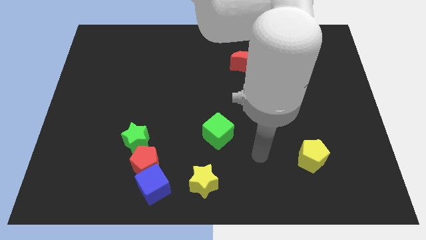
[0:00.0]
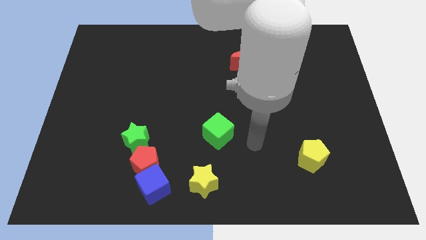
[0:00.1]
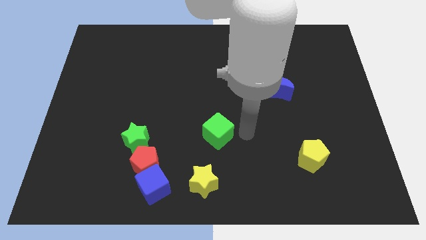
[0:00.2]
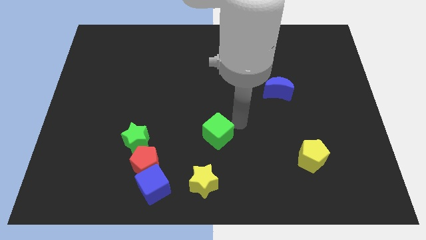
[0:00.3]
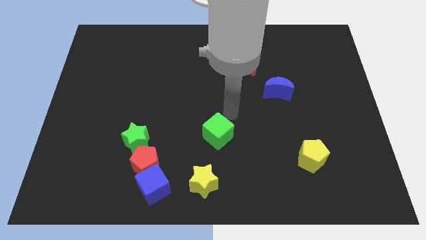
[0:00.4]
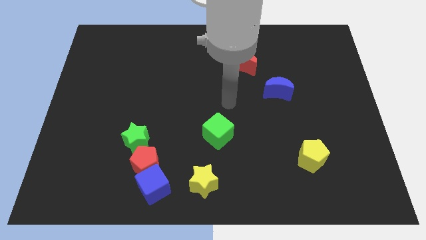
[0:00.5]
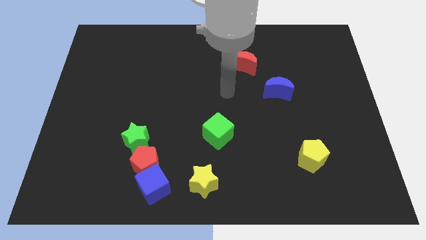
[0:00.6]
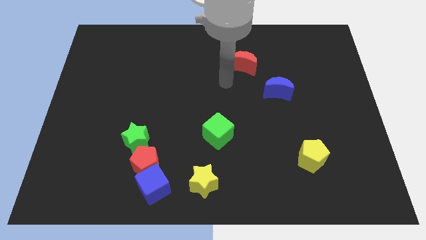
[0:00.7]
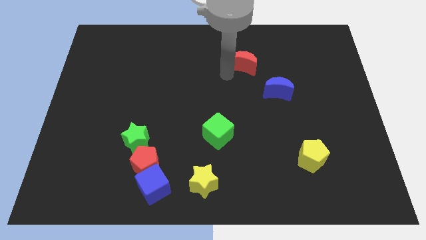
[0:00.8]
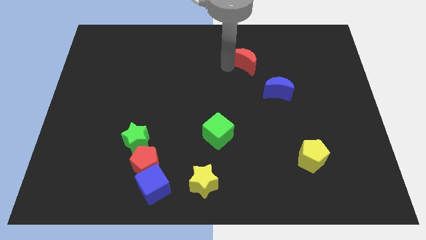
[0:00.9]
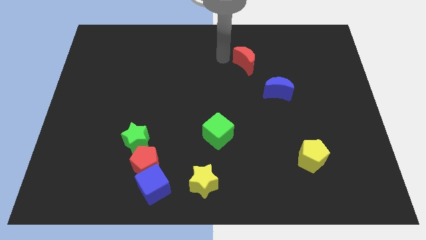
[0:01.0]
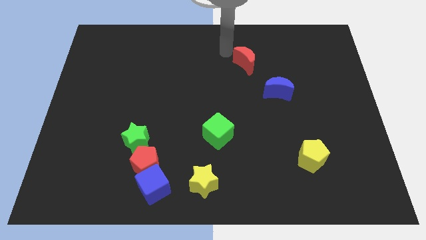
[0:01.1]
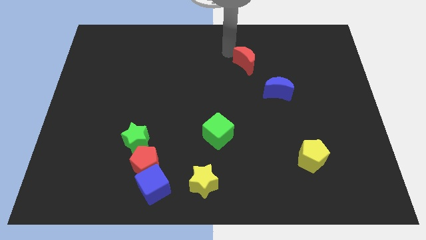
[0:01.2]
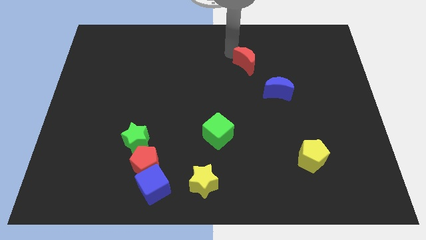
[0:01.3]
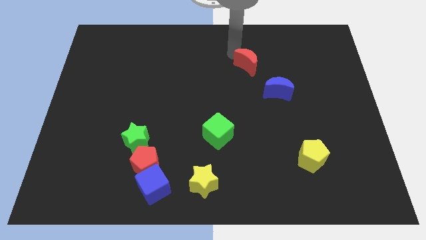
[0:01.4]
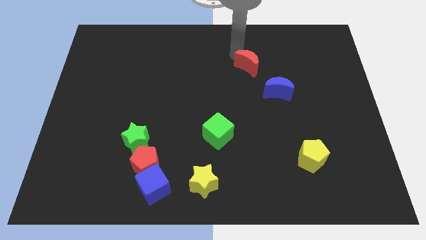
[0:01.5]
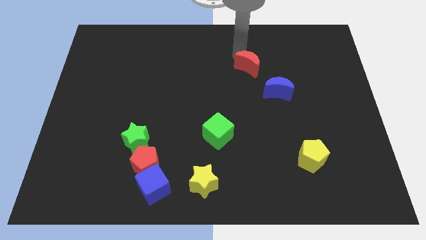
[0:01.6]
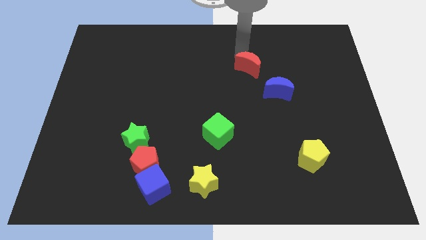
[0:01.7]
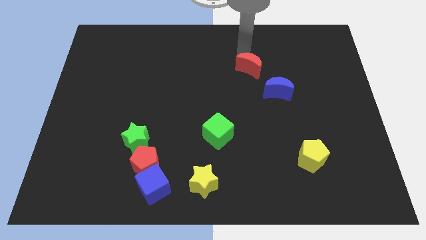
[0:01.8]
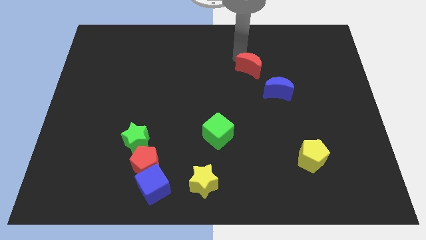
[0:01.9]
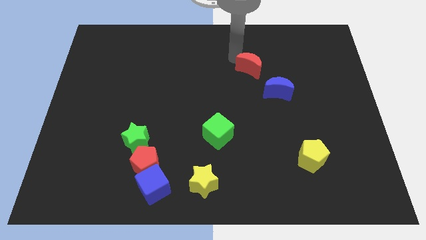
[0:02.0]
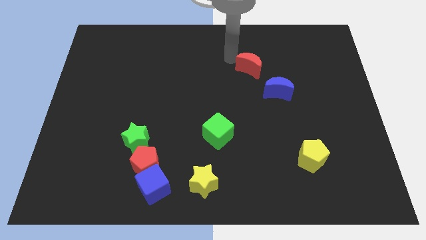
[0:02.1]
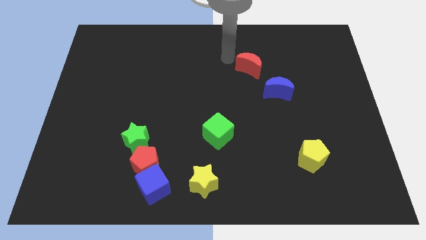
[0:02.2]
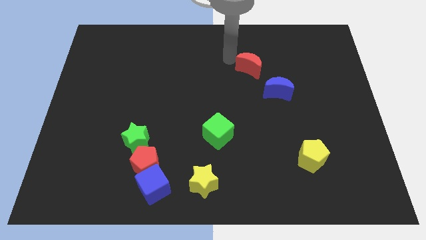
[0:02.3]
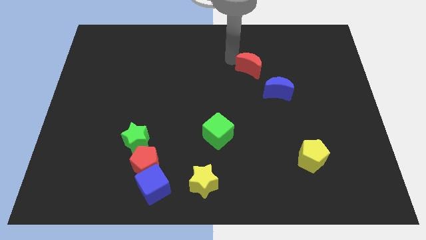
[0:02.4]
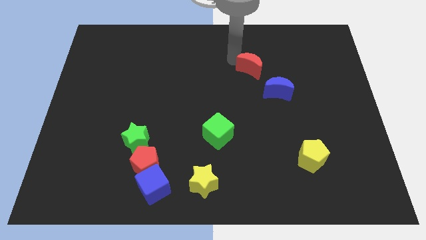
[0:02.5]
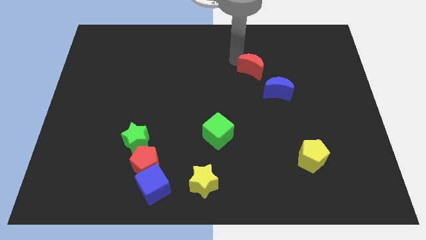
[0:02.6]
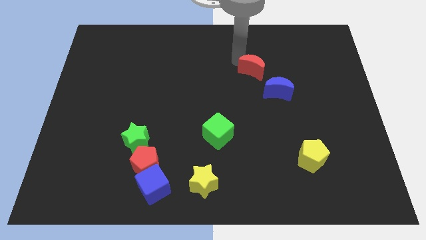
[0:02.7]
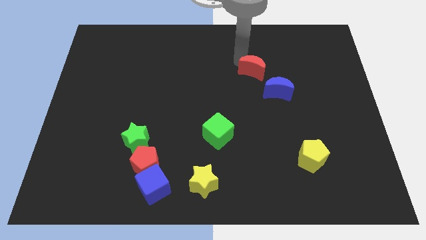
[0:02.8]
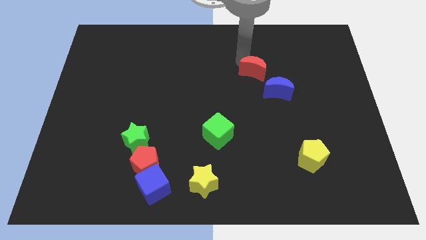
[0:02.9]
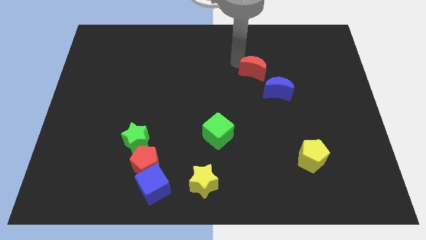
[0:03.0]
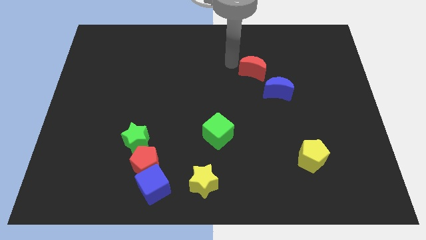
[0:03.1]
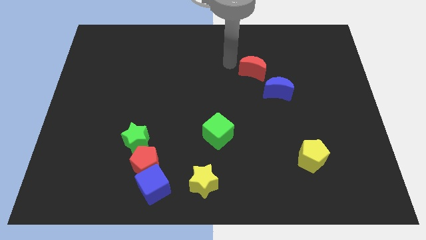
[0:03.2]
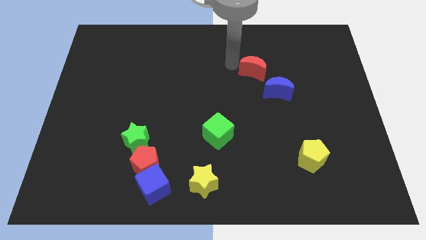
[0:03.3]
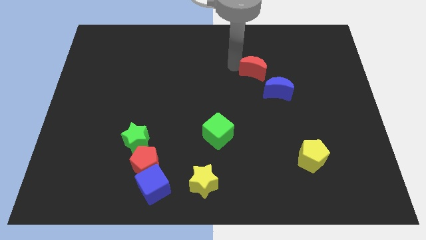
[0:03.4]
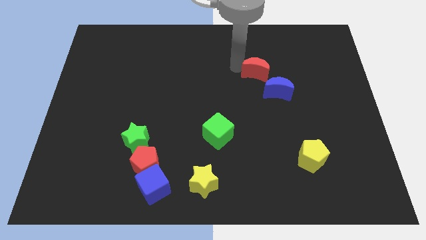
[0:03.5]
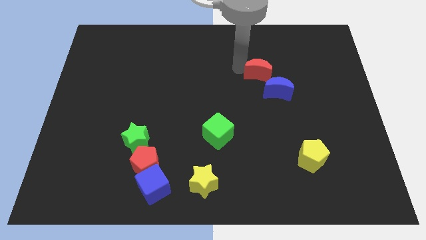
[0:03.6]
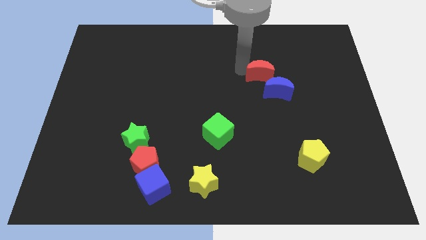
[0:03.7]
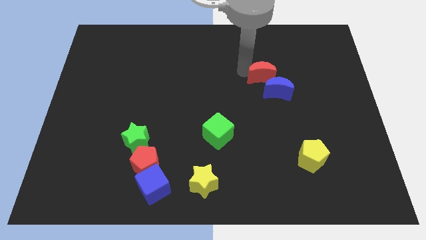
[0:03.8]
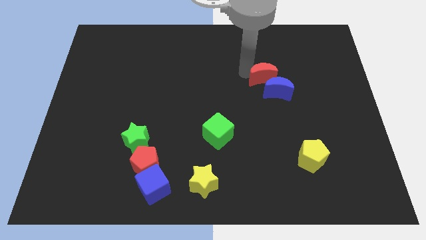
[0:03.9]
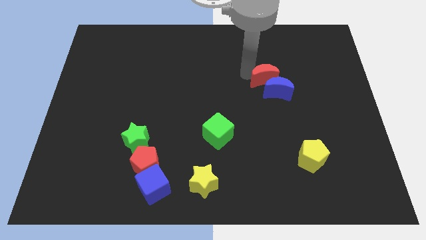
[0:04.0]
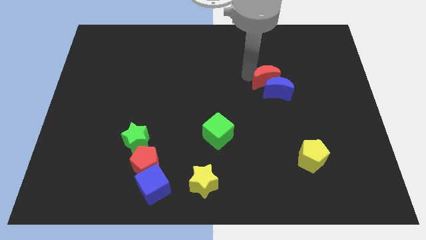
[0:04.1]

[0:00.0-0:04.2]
slide the red moon diagonally down and to the right a bit

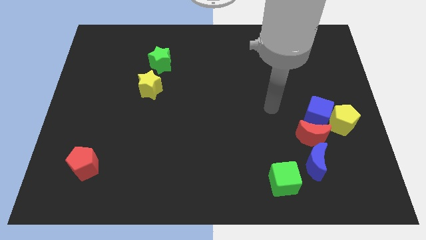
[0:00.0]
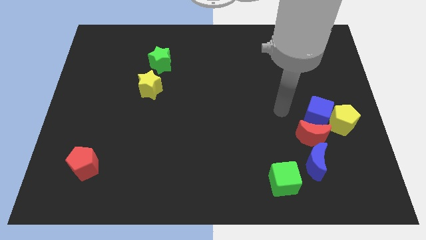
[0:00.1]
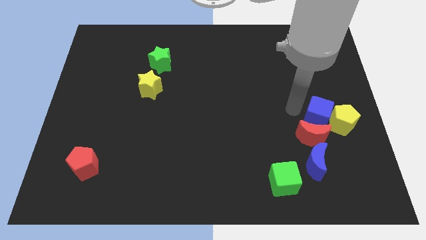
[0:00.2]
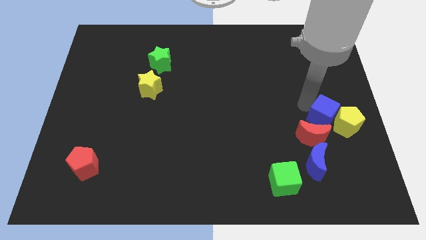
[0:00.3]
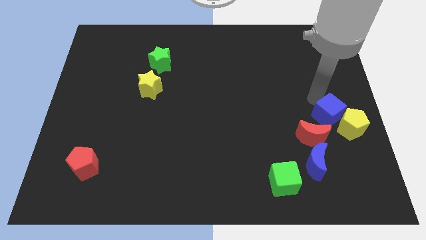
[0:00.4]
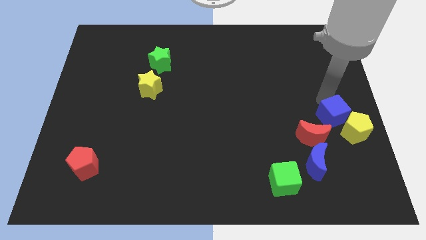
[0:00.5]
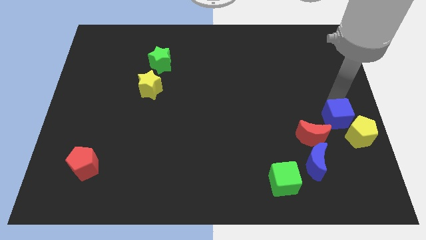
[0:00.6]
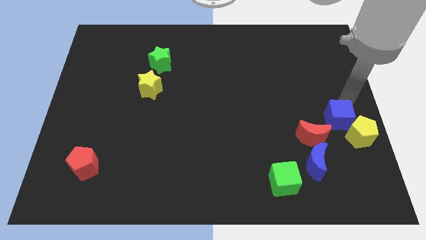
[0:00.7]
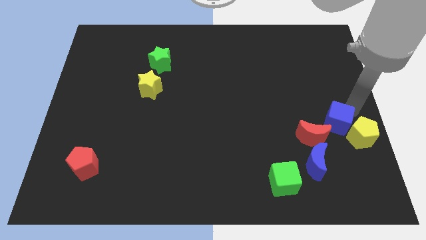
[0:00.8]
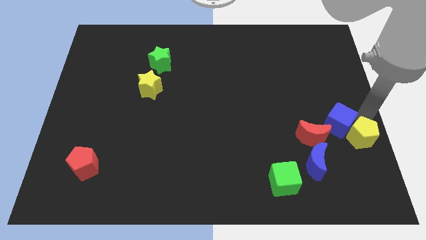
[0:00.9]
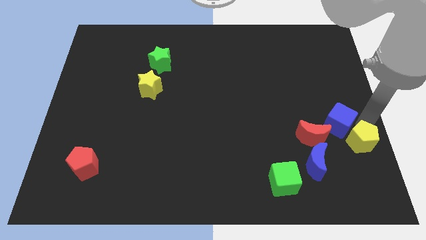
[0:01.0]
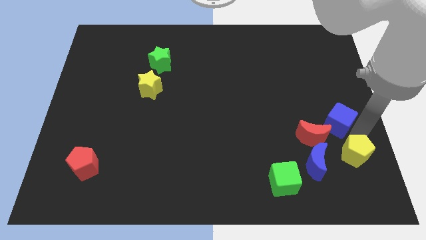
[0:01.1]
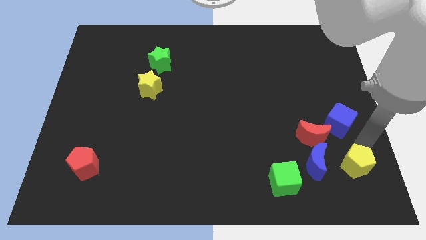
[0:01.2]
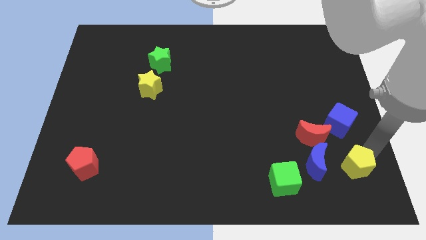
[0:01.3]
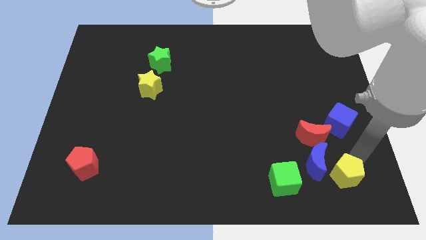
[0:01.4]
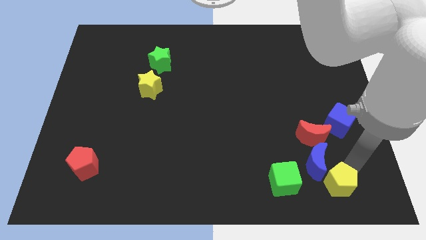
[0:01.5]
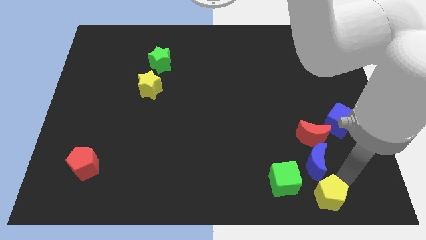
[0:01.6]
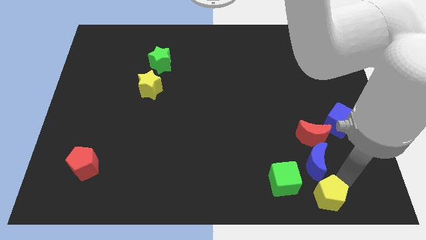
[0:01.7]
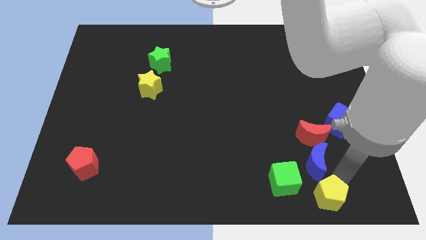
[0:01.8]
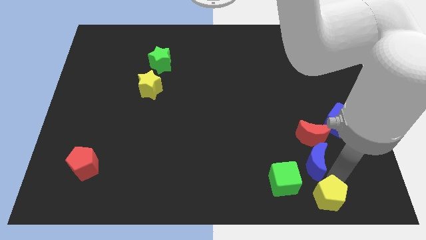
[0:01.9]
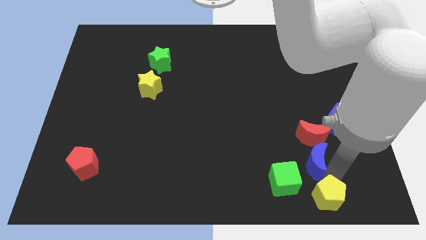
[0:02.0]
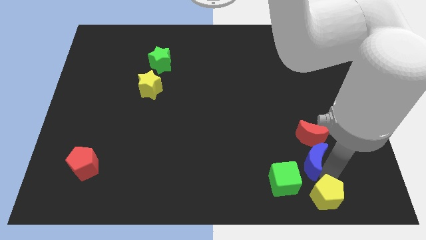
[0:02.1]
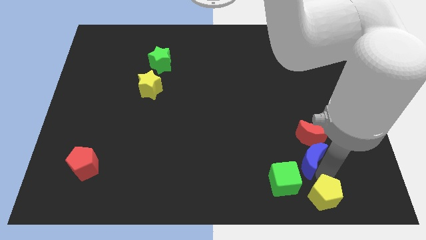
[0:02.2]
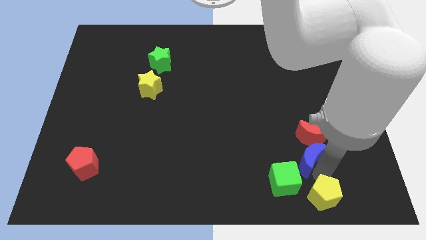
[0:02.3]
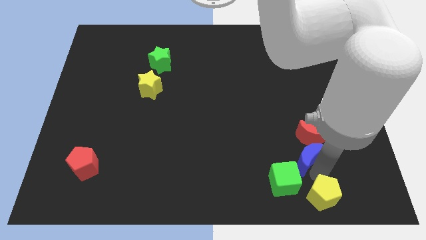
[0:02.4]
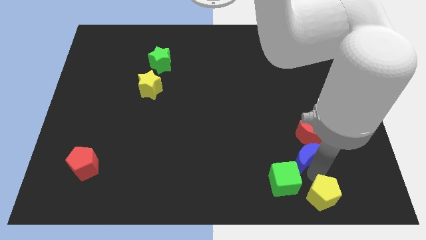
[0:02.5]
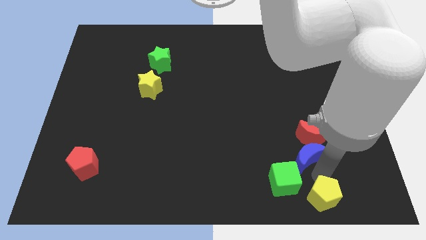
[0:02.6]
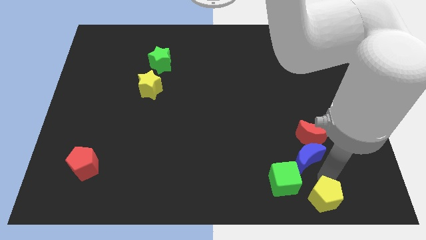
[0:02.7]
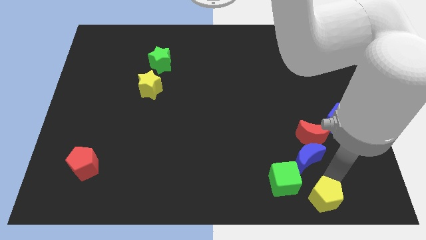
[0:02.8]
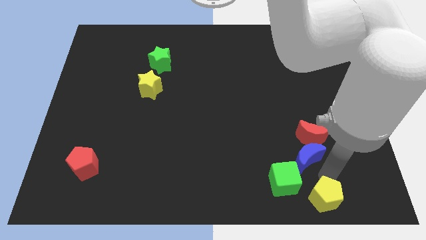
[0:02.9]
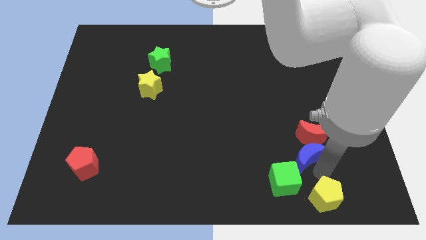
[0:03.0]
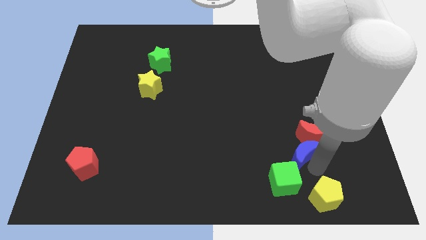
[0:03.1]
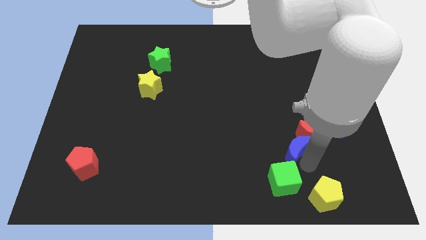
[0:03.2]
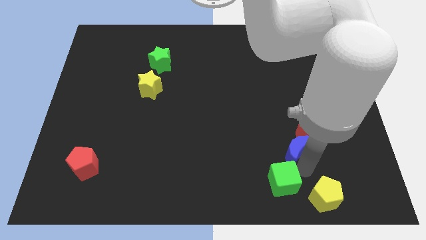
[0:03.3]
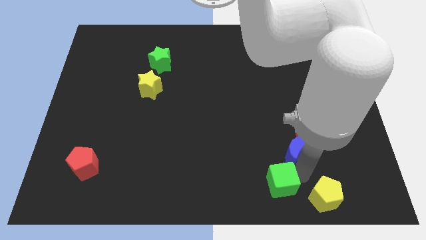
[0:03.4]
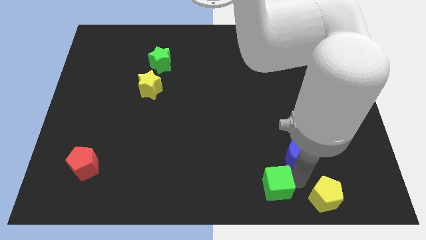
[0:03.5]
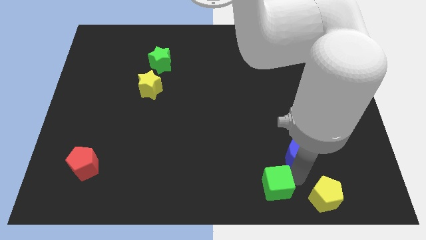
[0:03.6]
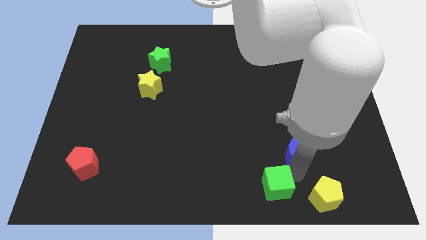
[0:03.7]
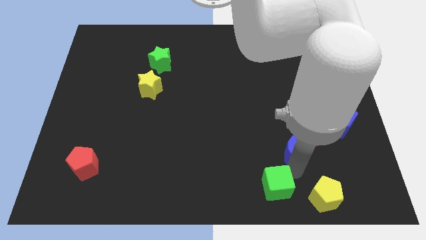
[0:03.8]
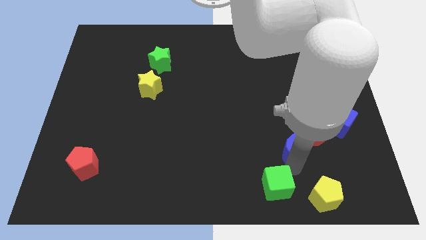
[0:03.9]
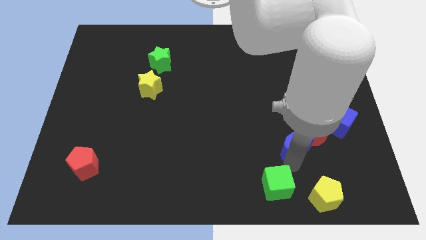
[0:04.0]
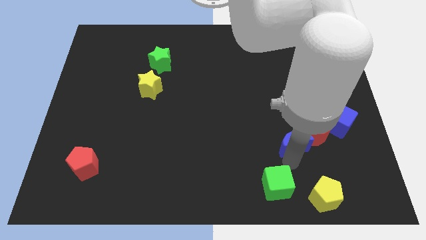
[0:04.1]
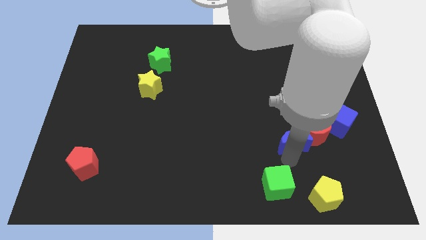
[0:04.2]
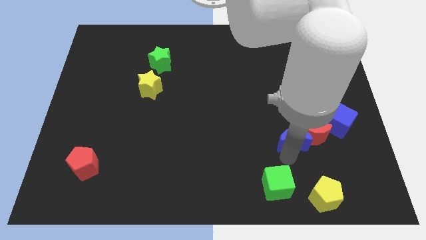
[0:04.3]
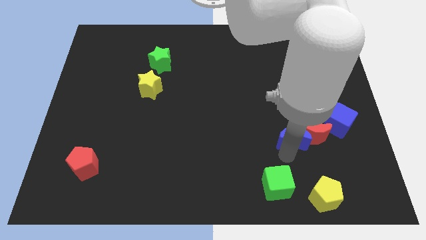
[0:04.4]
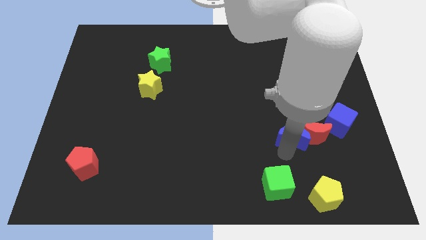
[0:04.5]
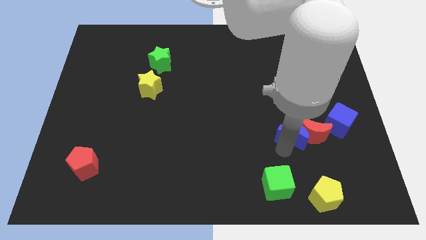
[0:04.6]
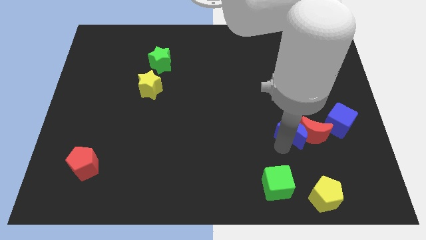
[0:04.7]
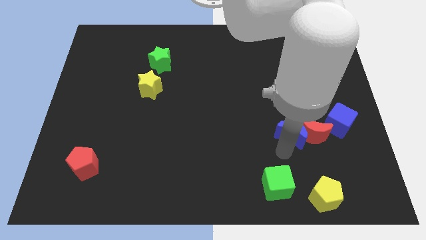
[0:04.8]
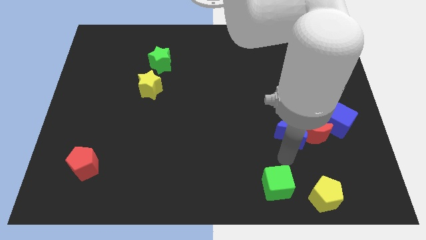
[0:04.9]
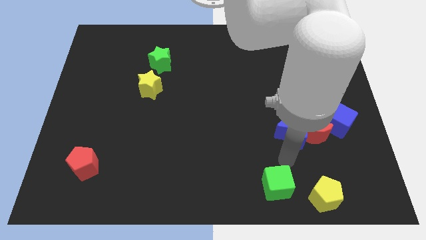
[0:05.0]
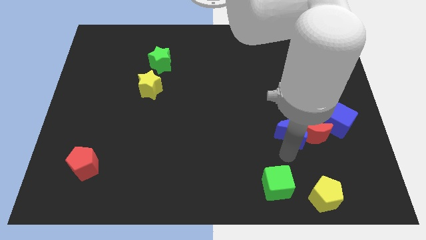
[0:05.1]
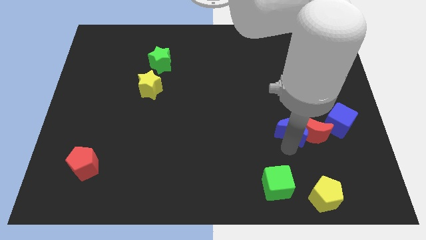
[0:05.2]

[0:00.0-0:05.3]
slightly slide the blue moon upwards
